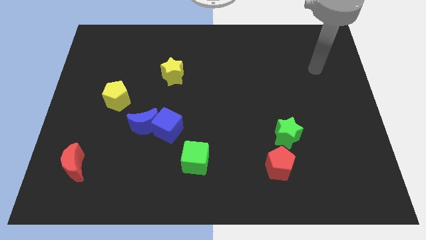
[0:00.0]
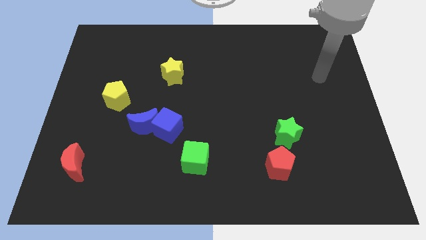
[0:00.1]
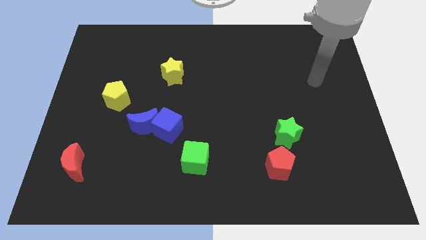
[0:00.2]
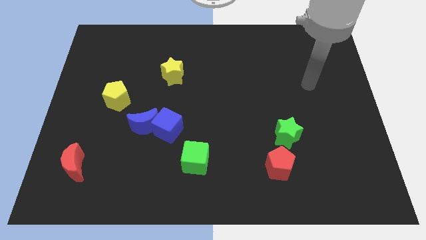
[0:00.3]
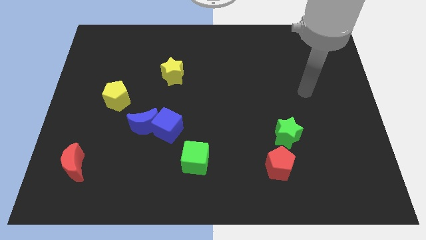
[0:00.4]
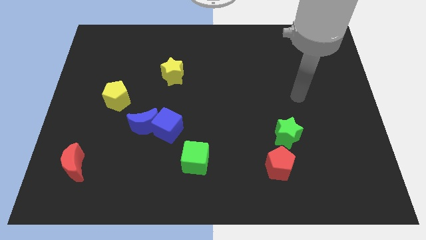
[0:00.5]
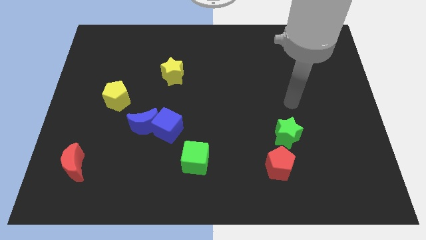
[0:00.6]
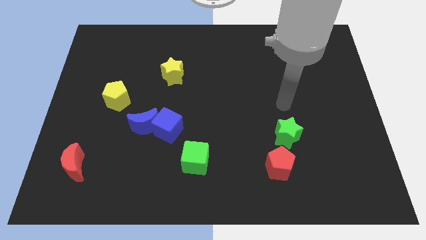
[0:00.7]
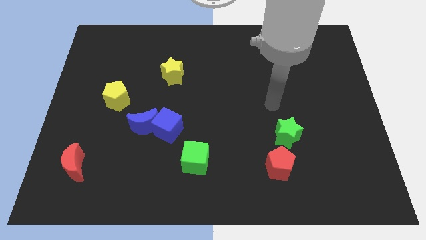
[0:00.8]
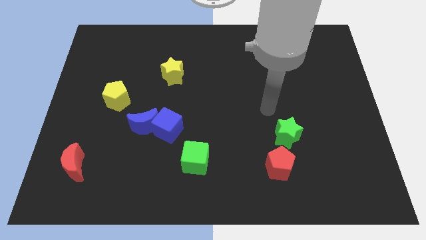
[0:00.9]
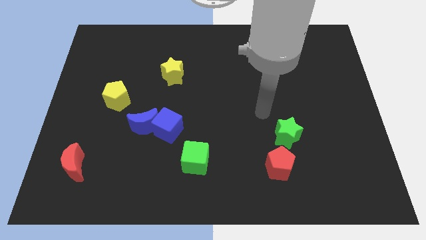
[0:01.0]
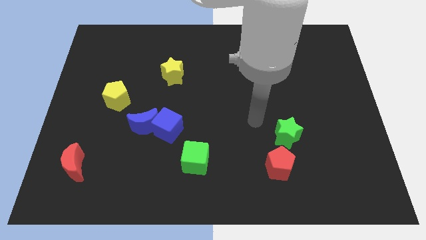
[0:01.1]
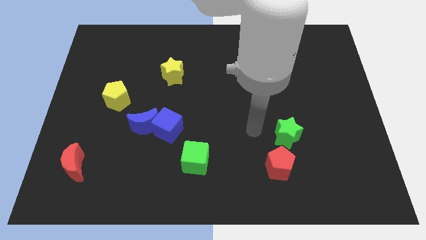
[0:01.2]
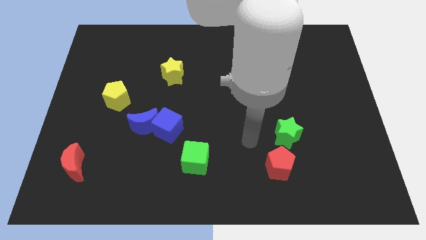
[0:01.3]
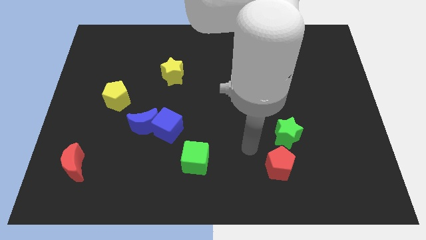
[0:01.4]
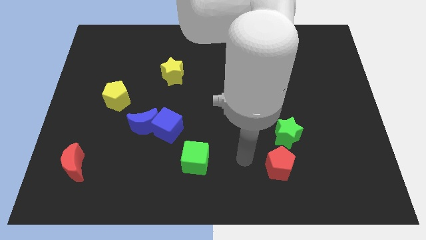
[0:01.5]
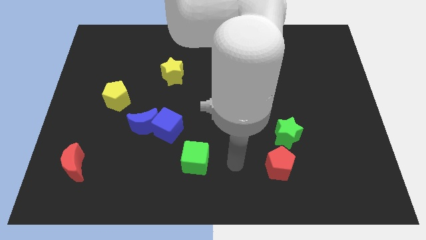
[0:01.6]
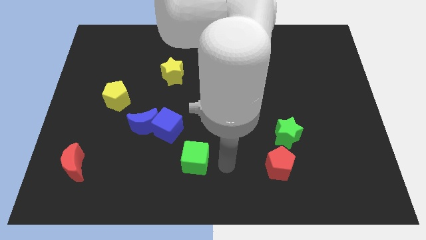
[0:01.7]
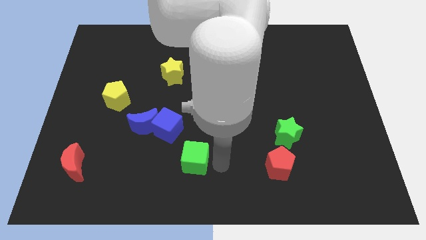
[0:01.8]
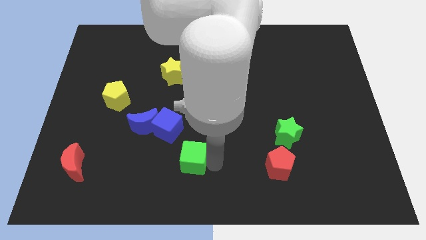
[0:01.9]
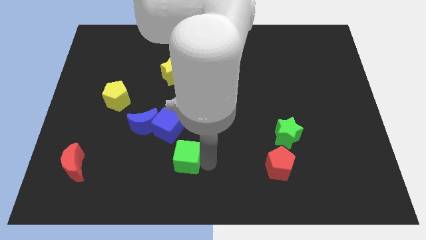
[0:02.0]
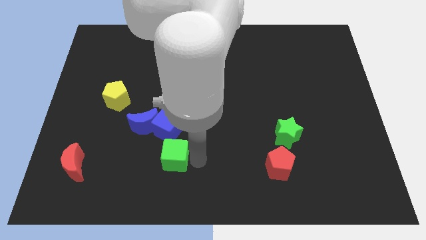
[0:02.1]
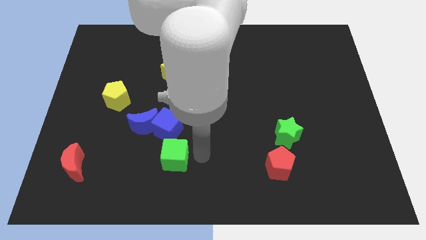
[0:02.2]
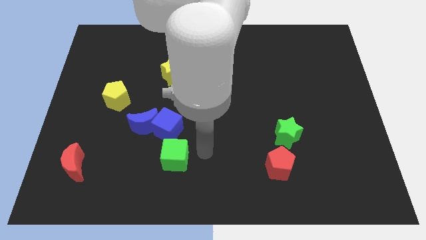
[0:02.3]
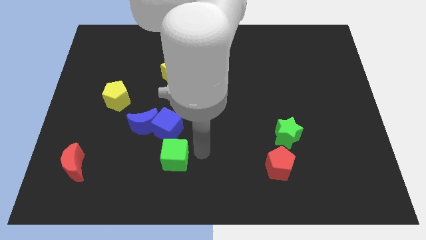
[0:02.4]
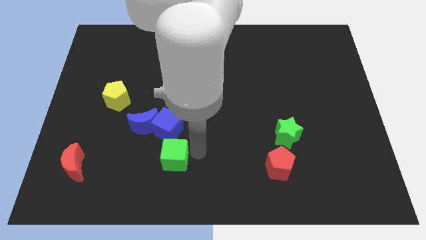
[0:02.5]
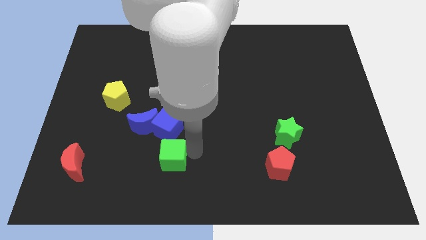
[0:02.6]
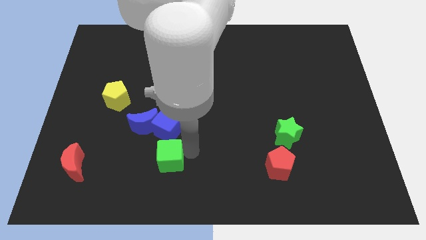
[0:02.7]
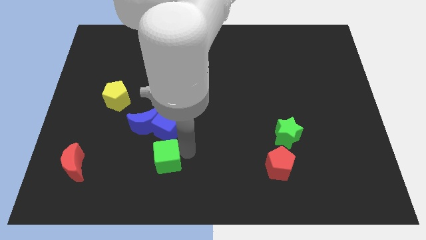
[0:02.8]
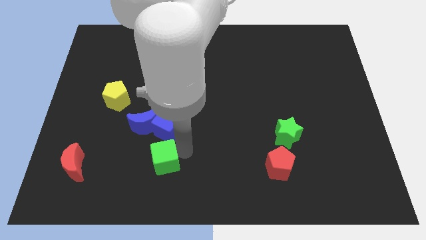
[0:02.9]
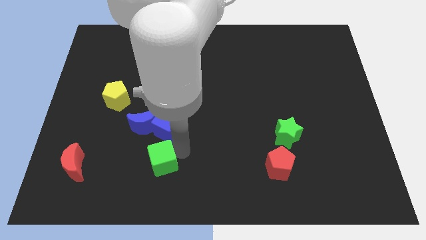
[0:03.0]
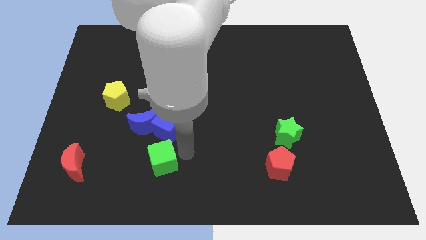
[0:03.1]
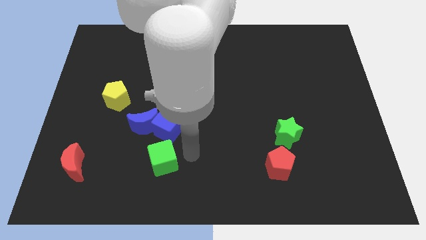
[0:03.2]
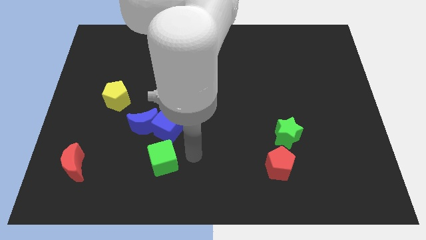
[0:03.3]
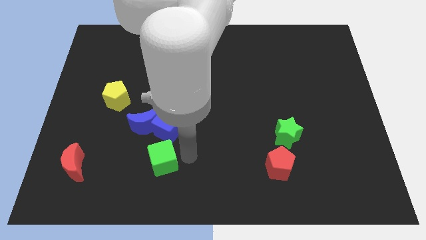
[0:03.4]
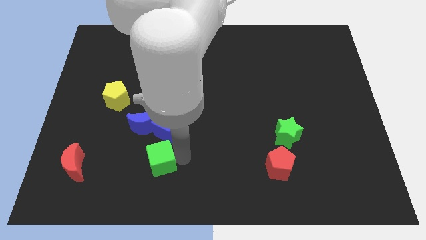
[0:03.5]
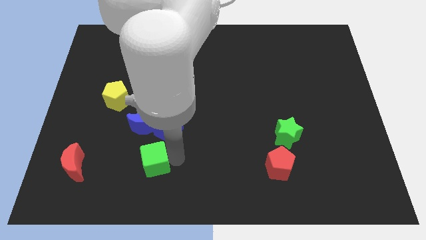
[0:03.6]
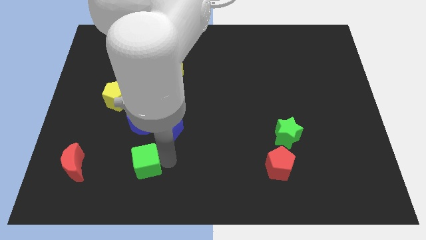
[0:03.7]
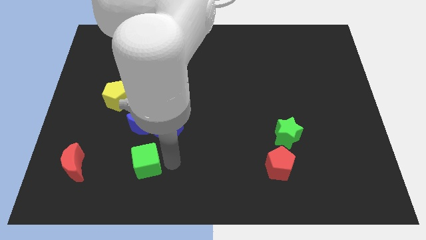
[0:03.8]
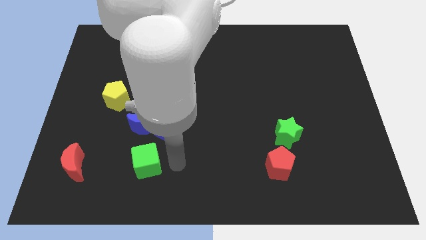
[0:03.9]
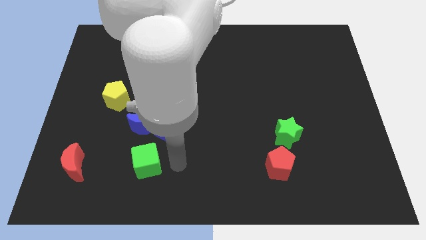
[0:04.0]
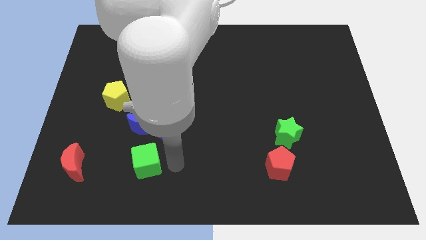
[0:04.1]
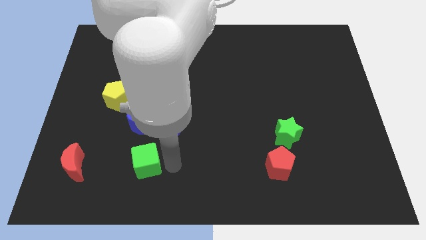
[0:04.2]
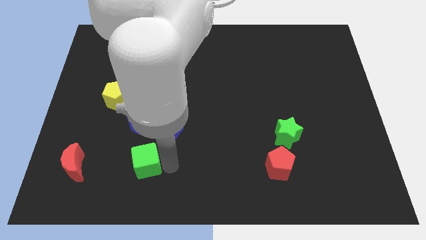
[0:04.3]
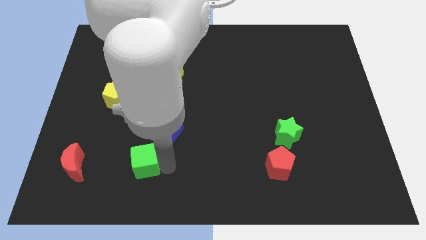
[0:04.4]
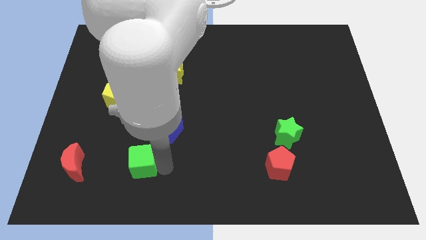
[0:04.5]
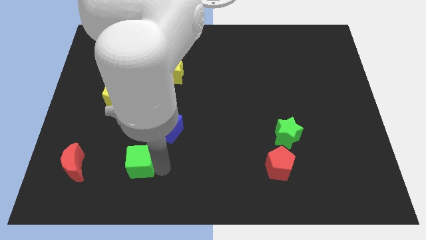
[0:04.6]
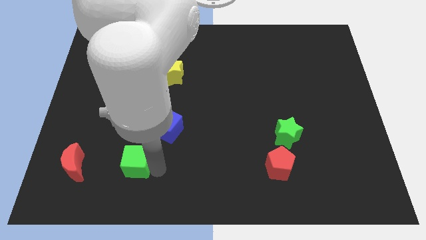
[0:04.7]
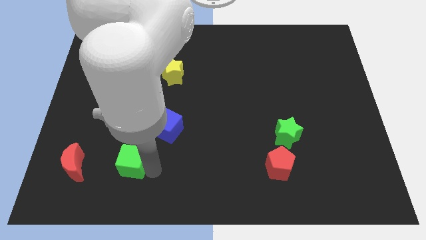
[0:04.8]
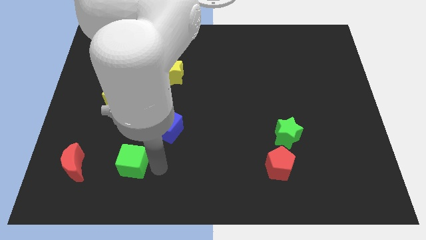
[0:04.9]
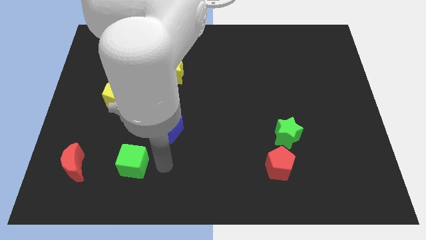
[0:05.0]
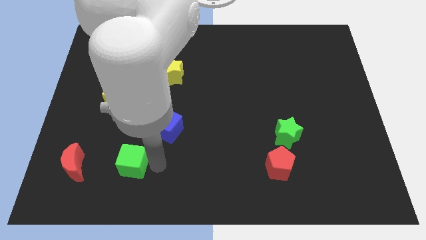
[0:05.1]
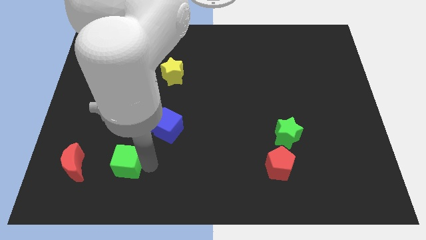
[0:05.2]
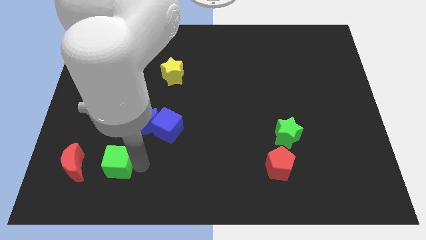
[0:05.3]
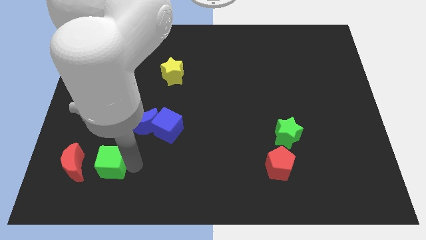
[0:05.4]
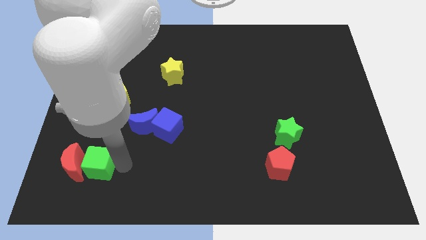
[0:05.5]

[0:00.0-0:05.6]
push the green cube towards the red moon

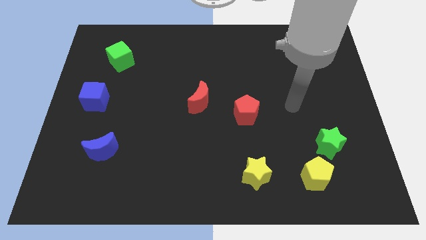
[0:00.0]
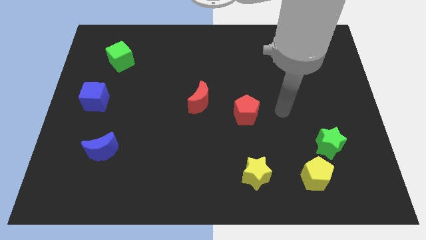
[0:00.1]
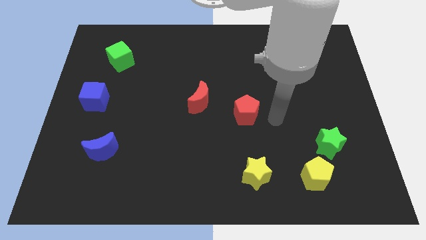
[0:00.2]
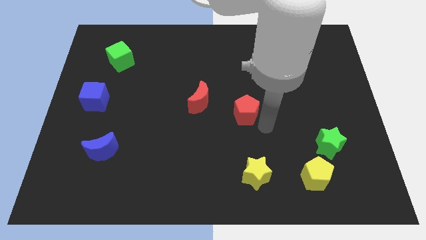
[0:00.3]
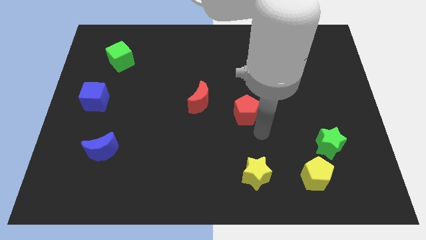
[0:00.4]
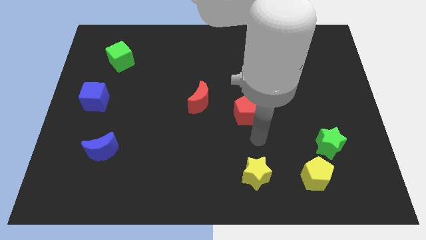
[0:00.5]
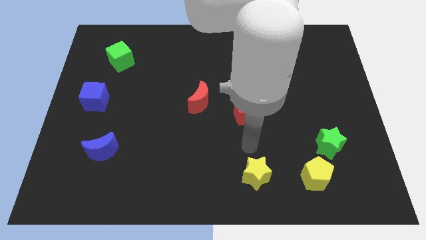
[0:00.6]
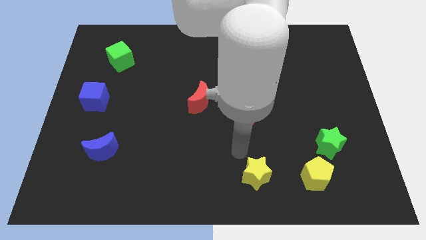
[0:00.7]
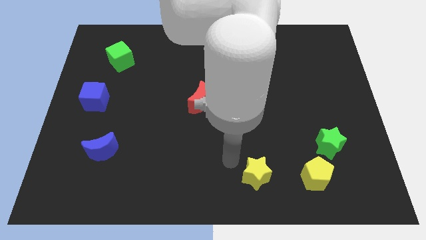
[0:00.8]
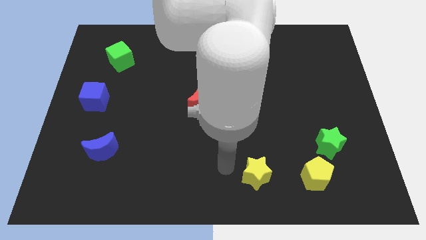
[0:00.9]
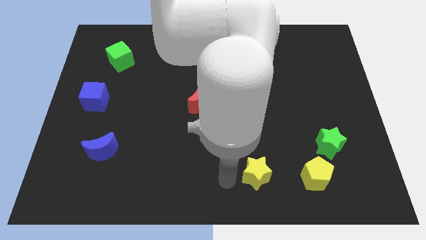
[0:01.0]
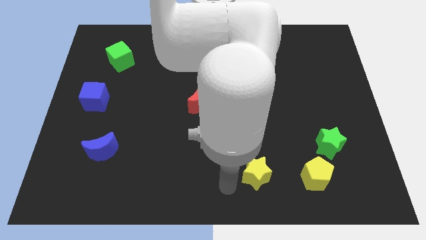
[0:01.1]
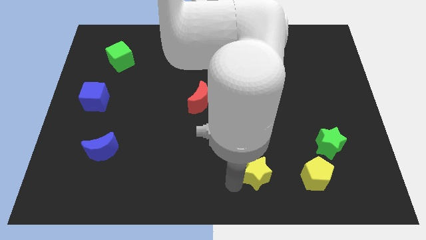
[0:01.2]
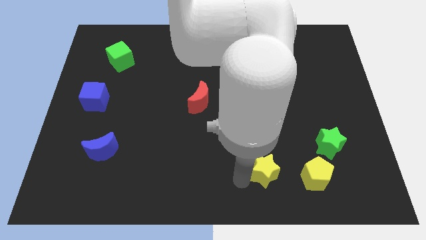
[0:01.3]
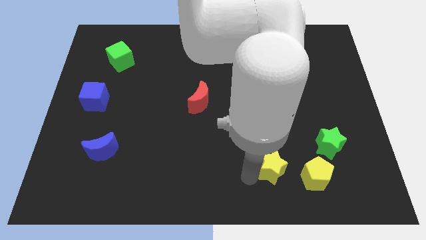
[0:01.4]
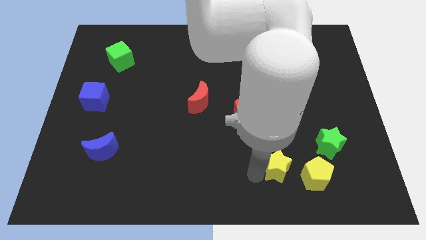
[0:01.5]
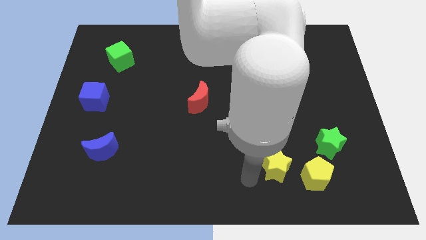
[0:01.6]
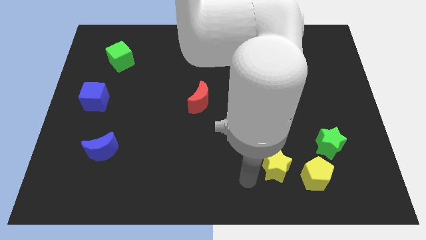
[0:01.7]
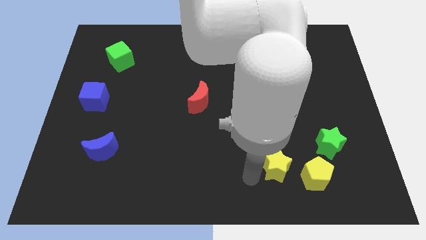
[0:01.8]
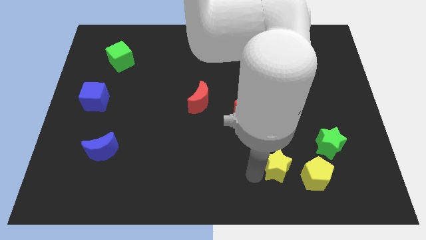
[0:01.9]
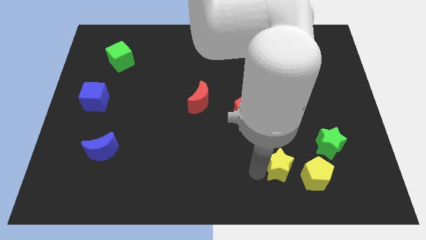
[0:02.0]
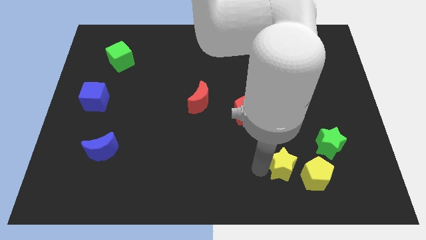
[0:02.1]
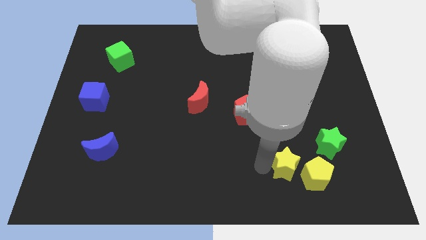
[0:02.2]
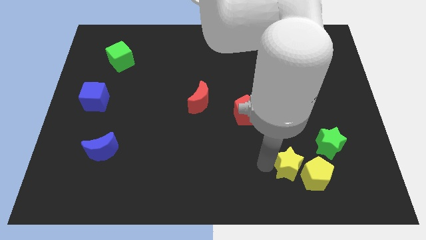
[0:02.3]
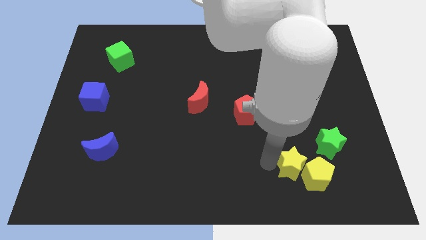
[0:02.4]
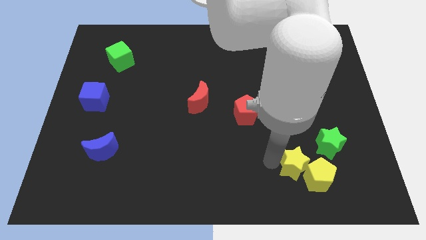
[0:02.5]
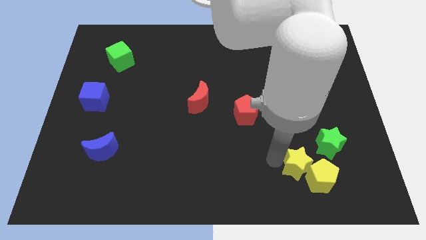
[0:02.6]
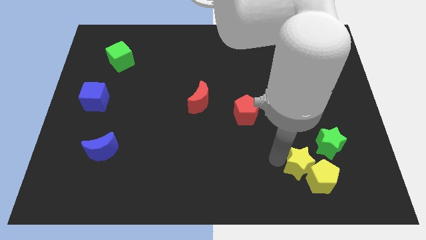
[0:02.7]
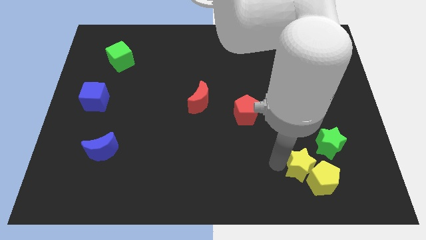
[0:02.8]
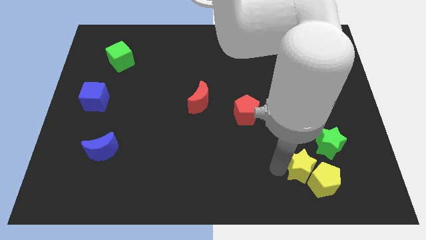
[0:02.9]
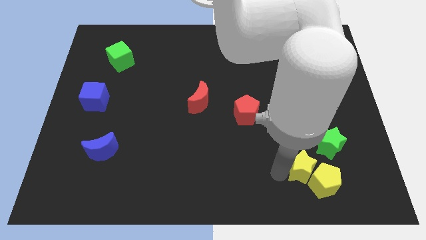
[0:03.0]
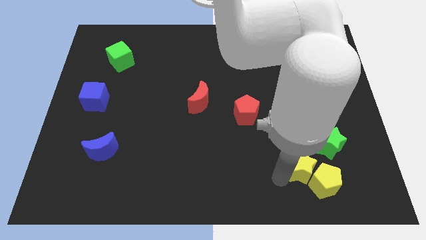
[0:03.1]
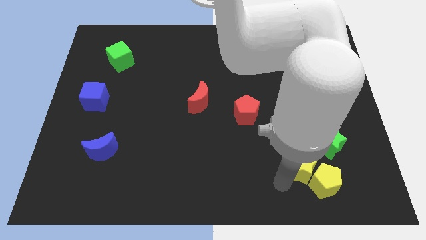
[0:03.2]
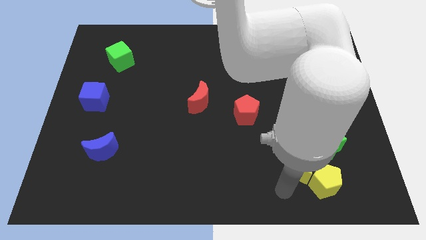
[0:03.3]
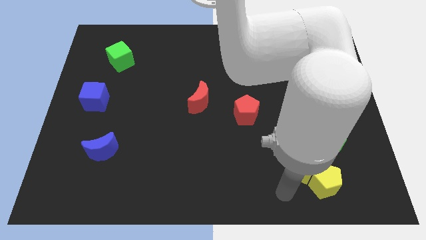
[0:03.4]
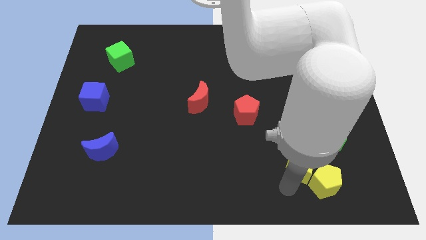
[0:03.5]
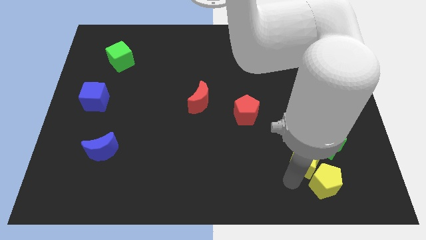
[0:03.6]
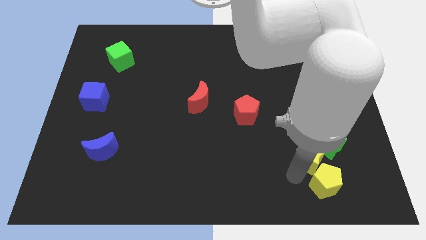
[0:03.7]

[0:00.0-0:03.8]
slide the yellow star towards the green star
